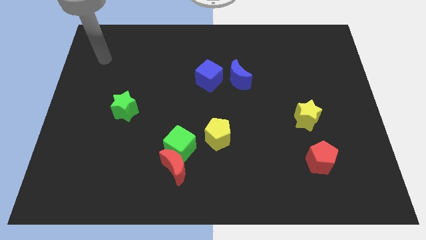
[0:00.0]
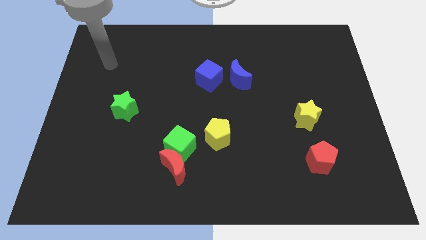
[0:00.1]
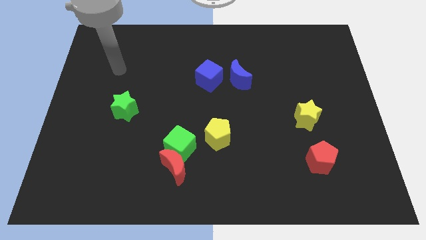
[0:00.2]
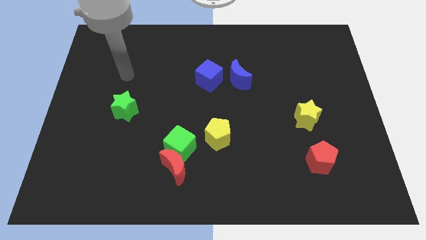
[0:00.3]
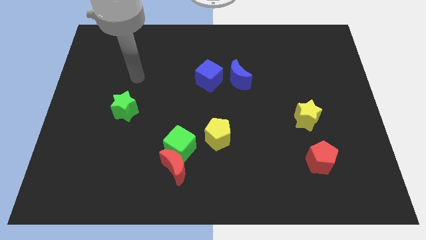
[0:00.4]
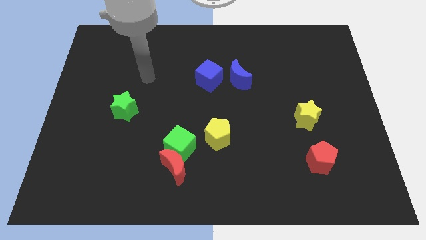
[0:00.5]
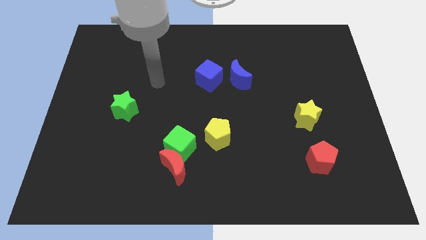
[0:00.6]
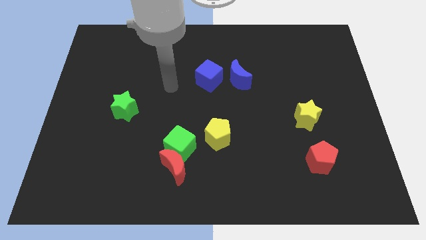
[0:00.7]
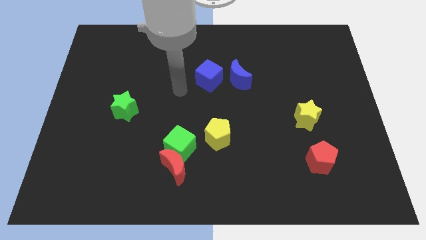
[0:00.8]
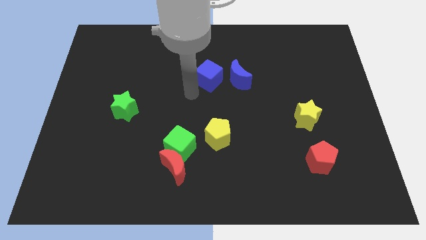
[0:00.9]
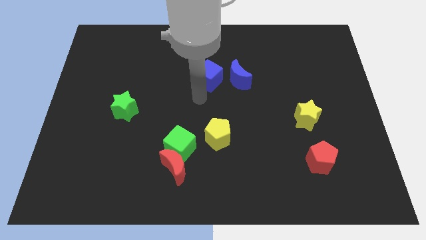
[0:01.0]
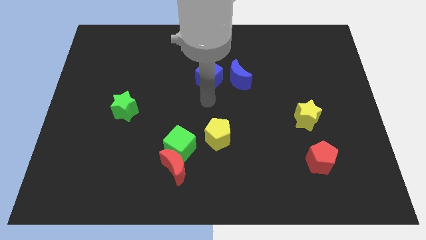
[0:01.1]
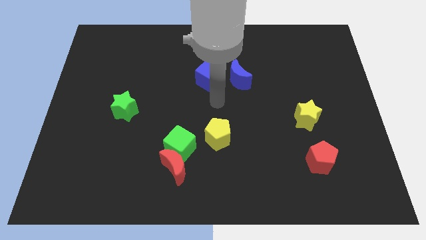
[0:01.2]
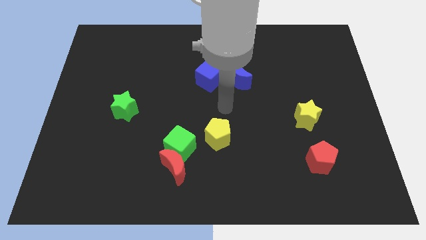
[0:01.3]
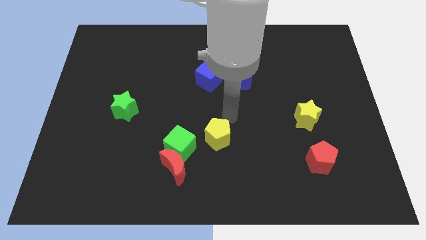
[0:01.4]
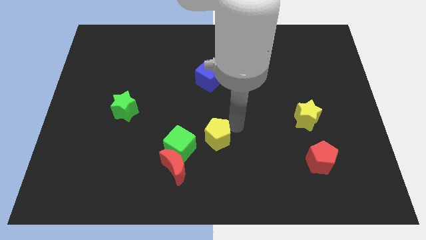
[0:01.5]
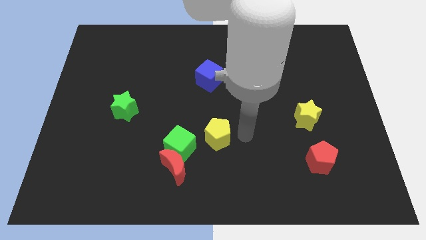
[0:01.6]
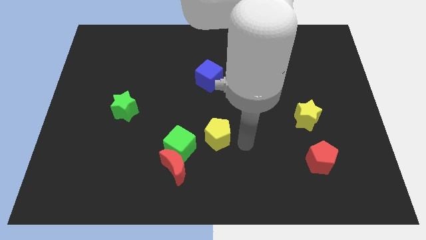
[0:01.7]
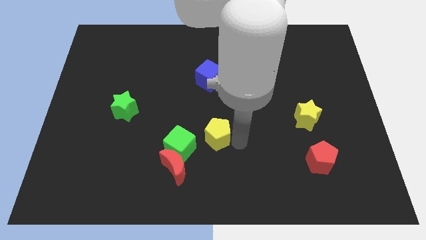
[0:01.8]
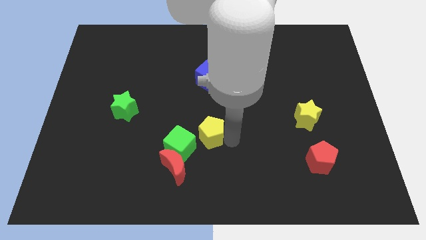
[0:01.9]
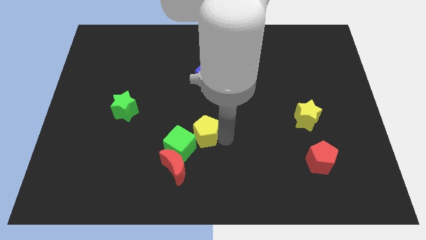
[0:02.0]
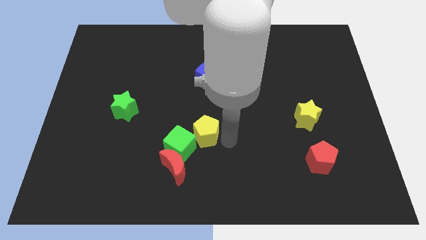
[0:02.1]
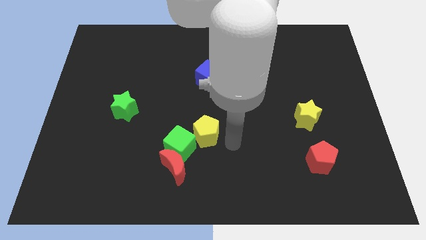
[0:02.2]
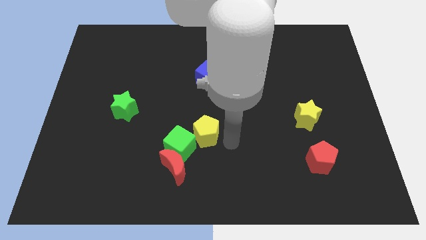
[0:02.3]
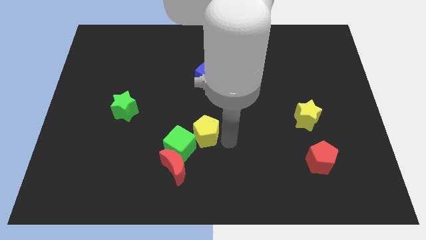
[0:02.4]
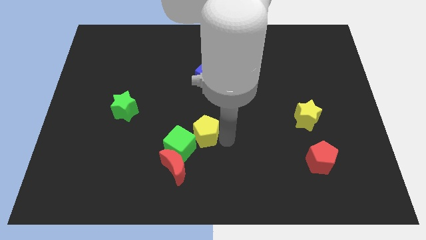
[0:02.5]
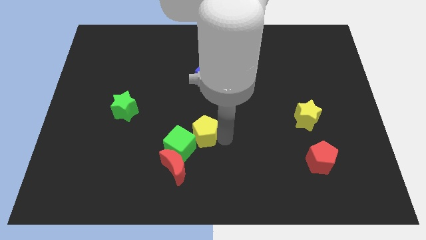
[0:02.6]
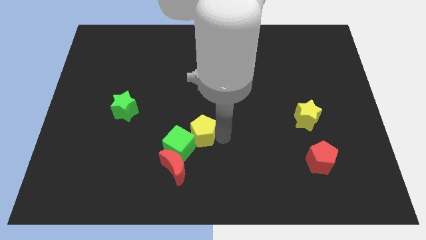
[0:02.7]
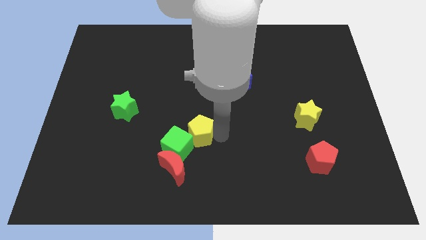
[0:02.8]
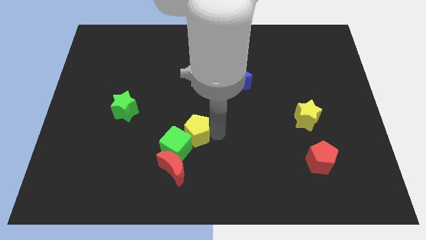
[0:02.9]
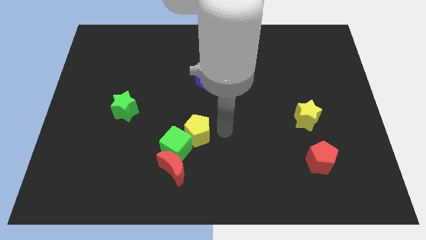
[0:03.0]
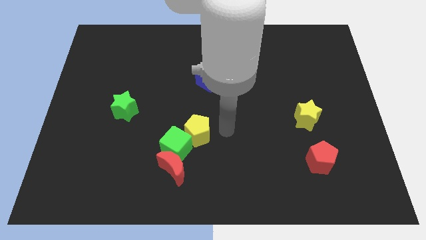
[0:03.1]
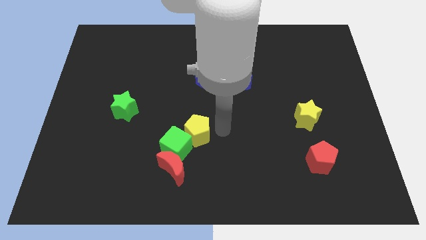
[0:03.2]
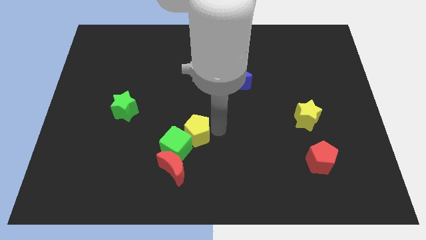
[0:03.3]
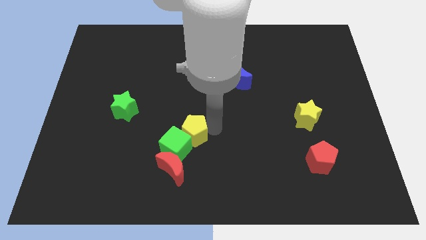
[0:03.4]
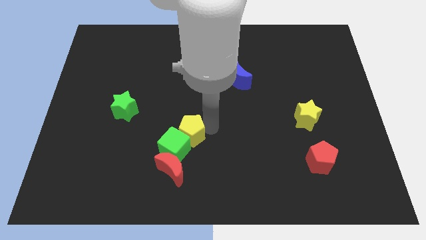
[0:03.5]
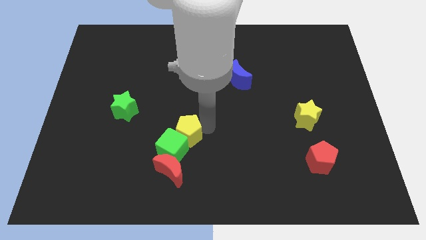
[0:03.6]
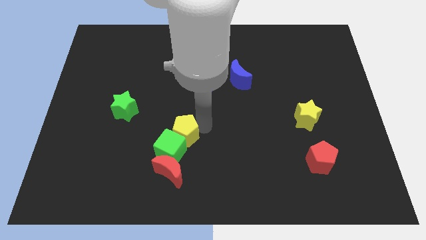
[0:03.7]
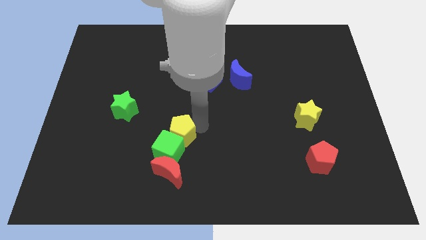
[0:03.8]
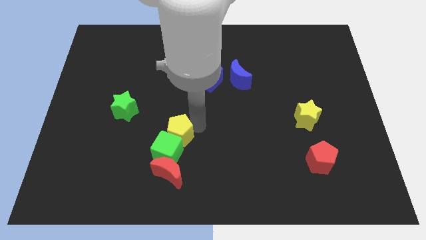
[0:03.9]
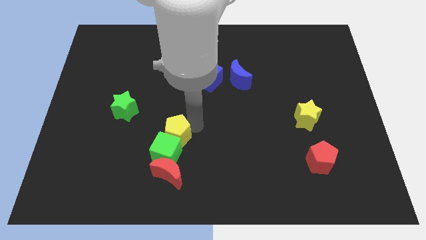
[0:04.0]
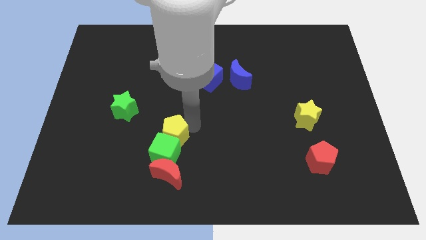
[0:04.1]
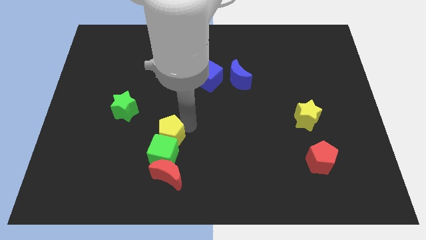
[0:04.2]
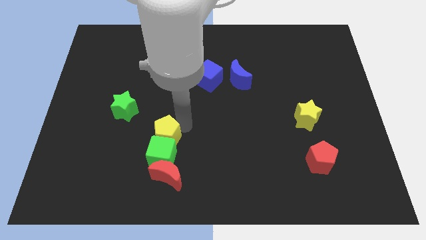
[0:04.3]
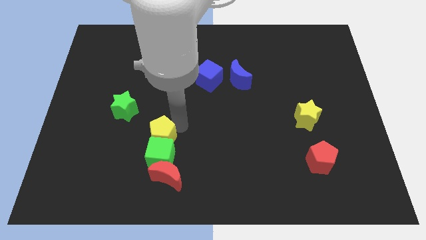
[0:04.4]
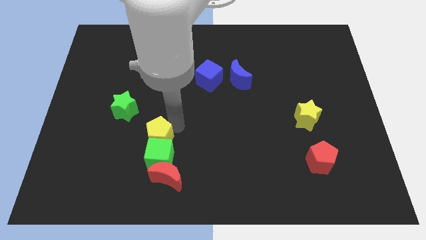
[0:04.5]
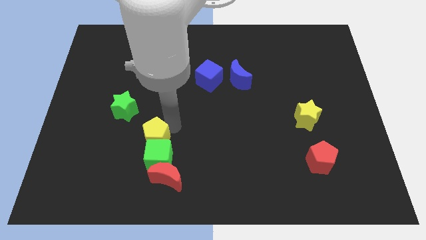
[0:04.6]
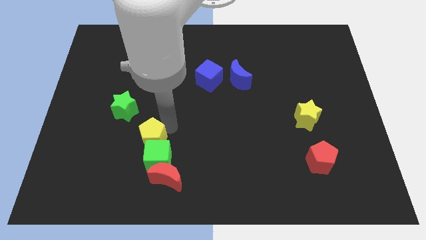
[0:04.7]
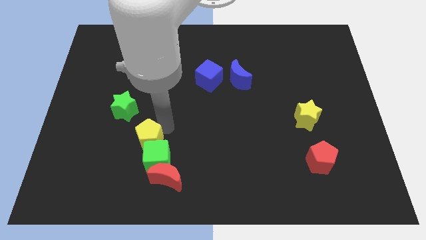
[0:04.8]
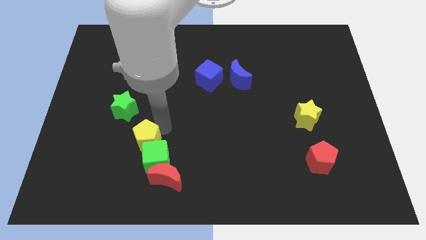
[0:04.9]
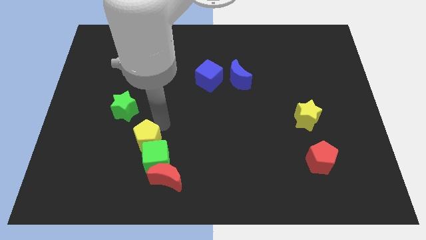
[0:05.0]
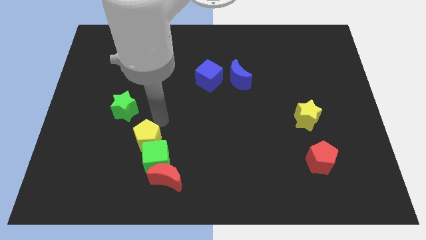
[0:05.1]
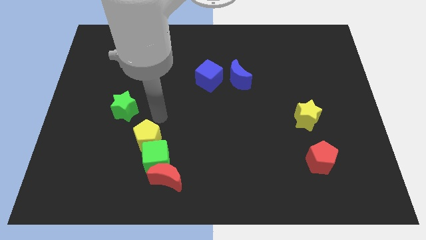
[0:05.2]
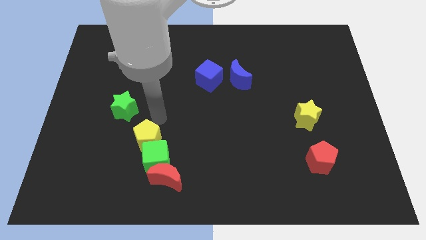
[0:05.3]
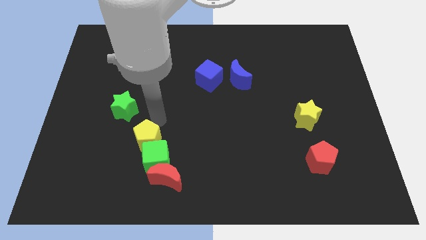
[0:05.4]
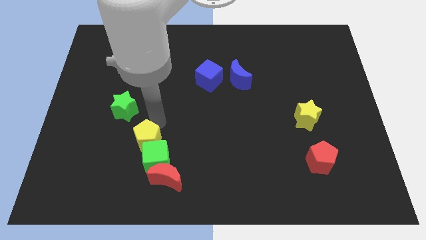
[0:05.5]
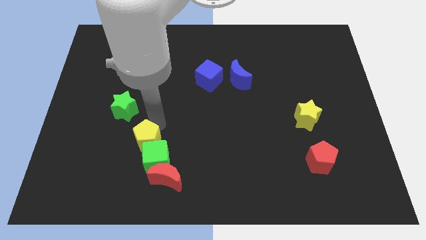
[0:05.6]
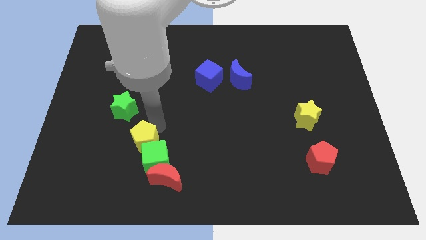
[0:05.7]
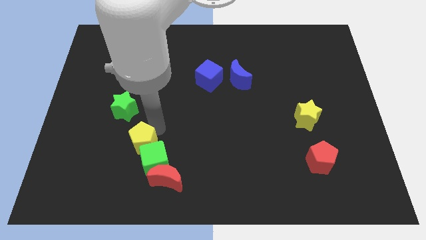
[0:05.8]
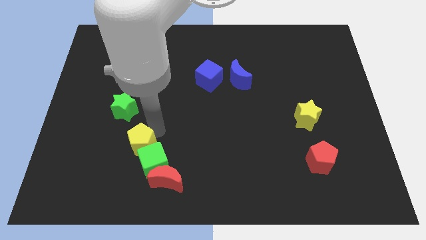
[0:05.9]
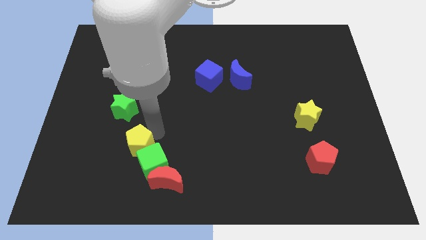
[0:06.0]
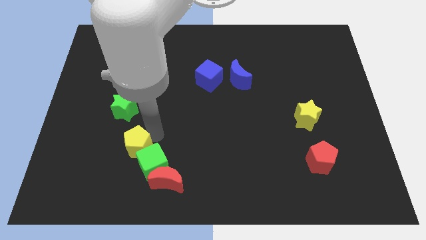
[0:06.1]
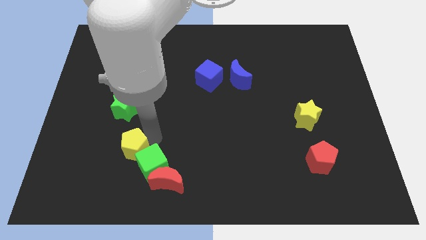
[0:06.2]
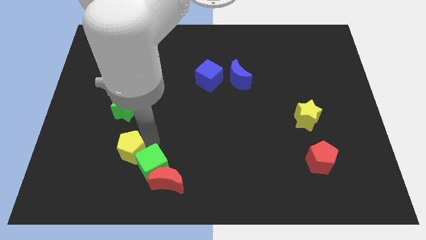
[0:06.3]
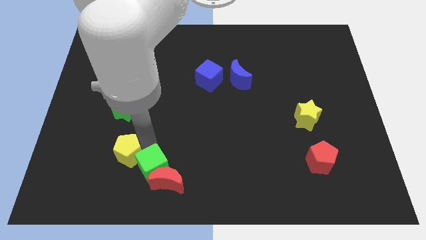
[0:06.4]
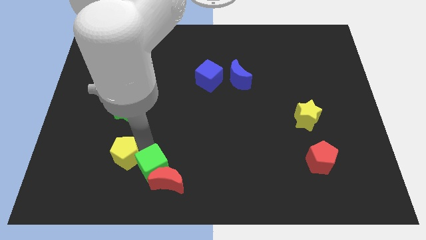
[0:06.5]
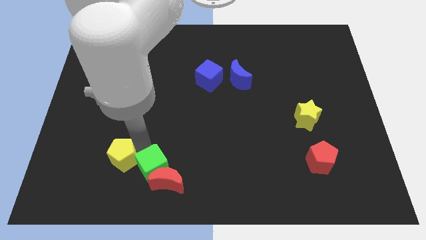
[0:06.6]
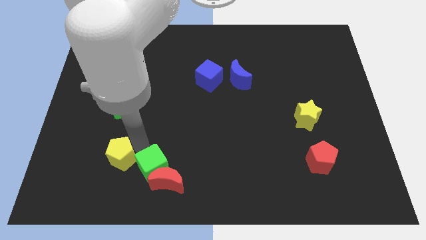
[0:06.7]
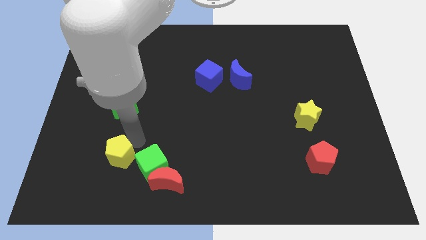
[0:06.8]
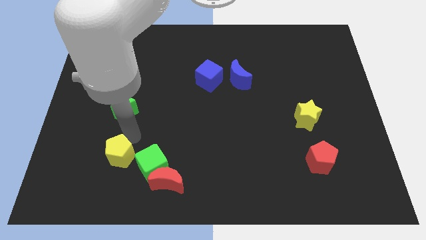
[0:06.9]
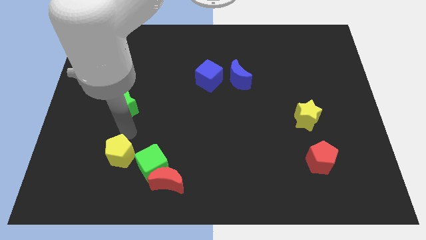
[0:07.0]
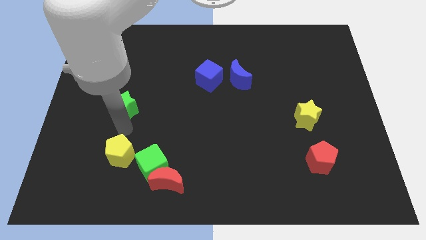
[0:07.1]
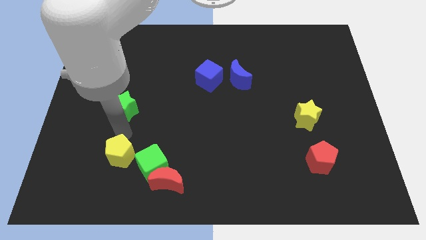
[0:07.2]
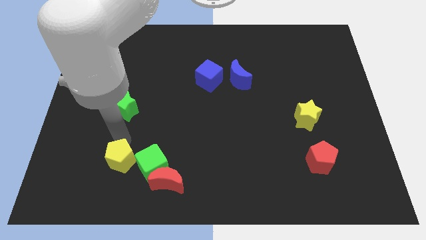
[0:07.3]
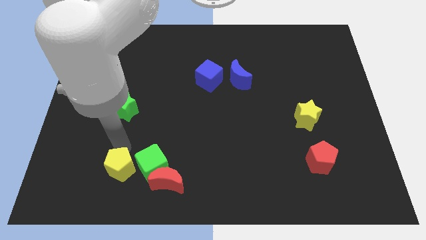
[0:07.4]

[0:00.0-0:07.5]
slide the yellow pentagon to the left side of the red moon
